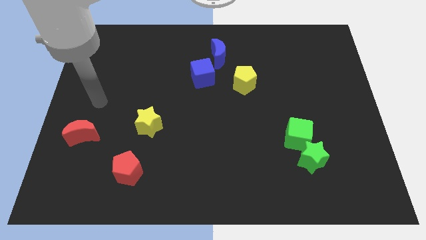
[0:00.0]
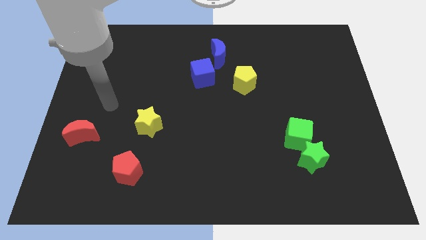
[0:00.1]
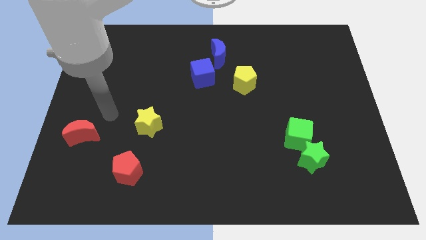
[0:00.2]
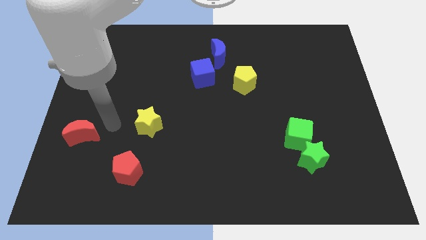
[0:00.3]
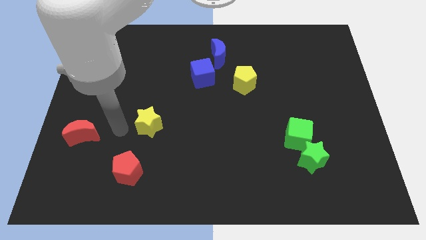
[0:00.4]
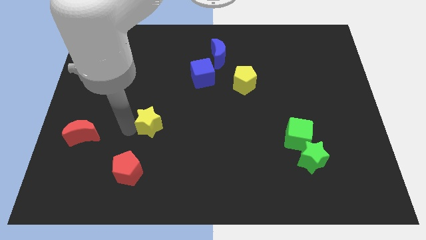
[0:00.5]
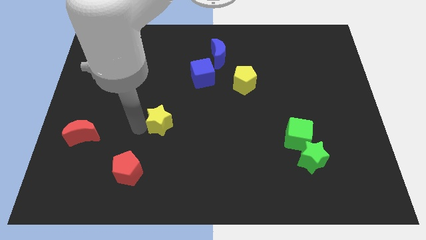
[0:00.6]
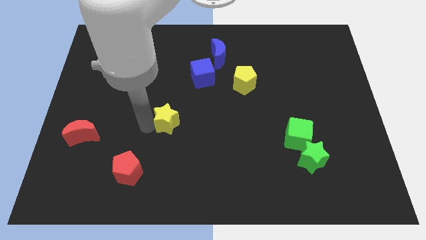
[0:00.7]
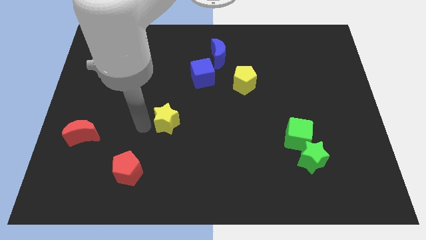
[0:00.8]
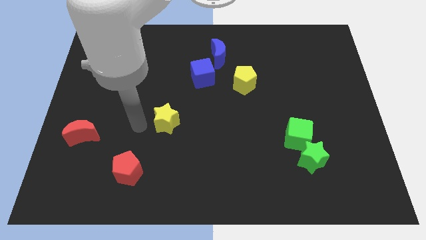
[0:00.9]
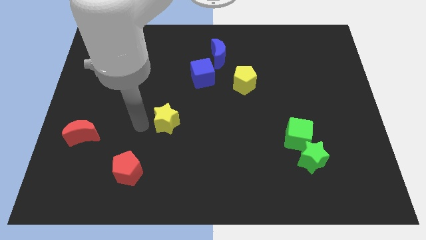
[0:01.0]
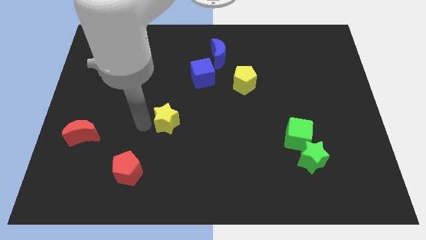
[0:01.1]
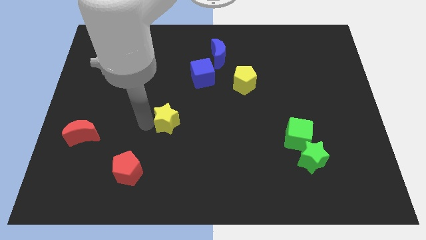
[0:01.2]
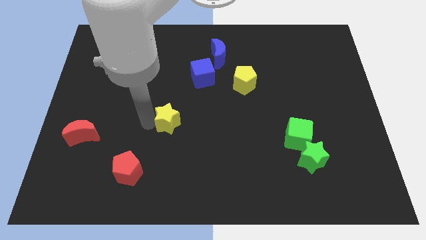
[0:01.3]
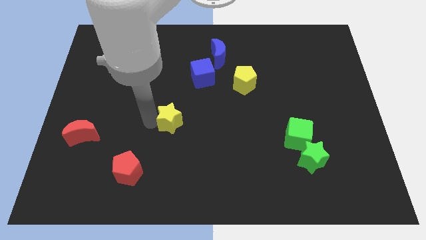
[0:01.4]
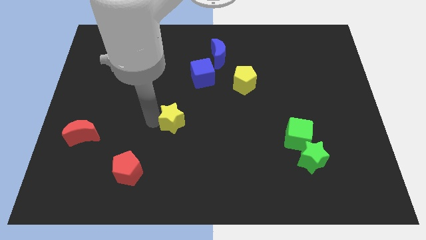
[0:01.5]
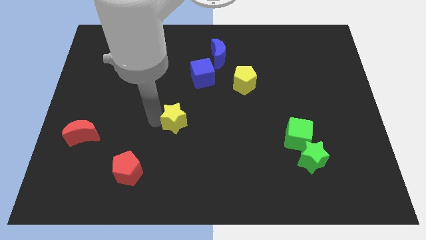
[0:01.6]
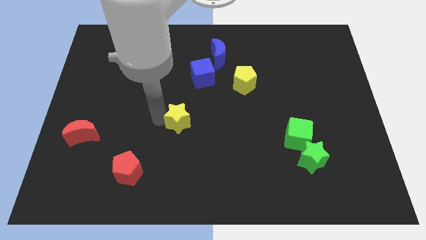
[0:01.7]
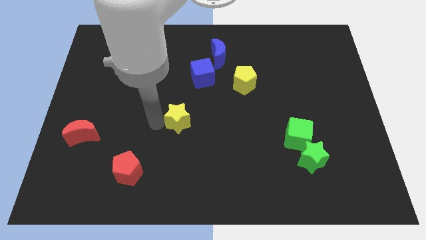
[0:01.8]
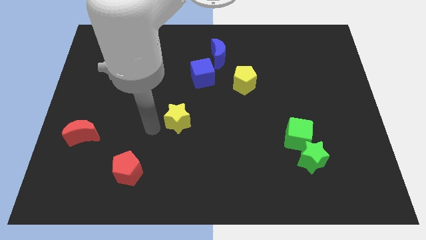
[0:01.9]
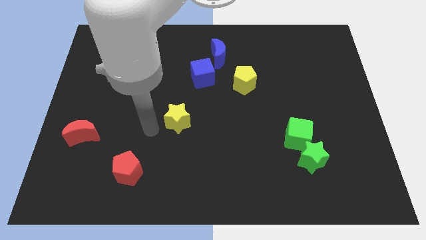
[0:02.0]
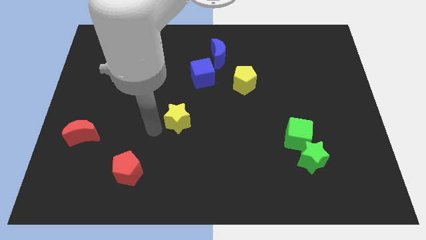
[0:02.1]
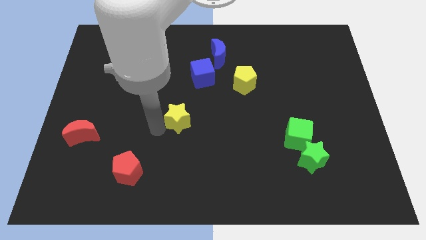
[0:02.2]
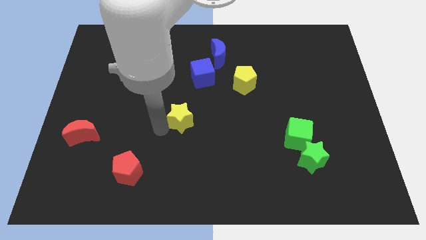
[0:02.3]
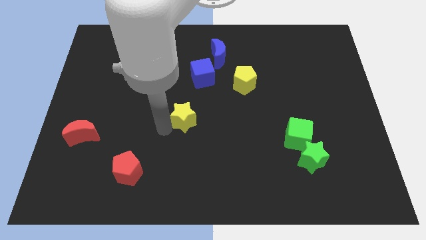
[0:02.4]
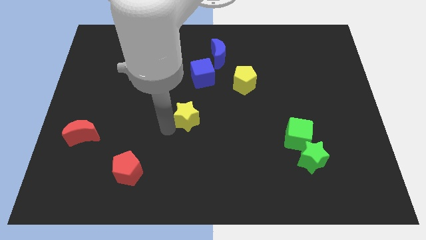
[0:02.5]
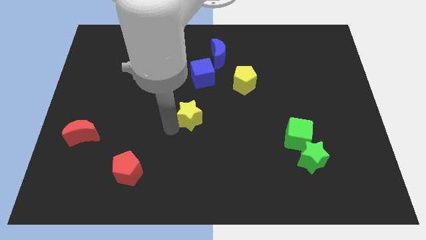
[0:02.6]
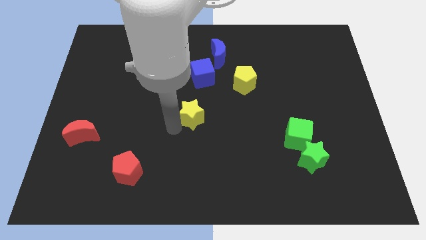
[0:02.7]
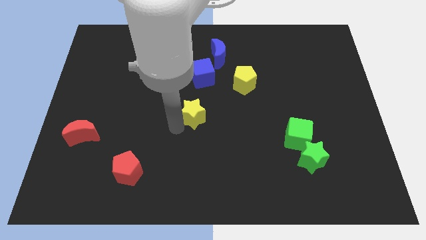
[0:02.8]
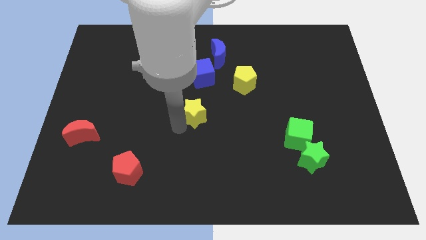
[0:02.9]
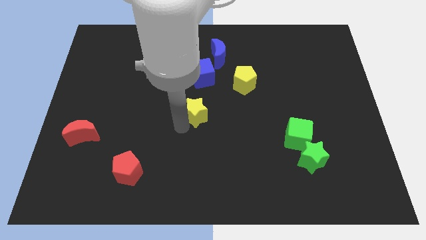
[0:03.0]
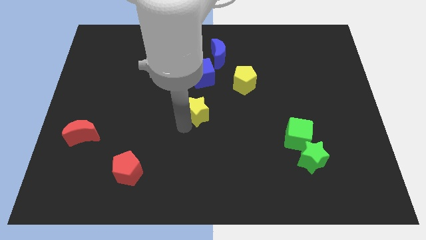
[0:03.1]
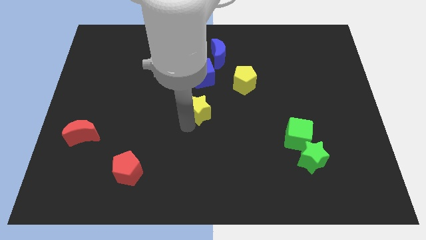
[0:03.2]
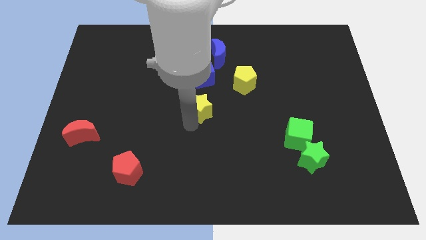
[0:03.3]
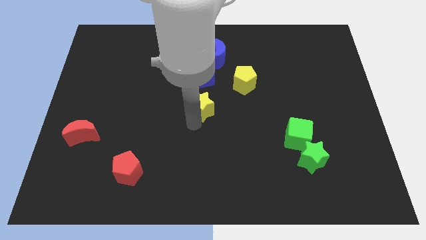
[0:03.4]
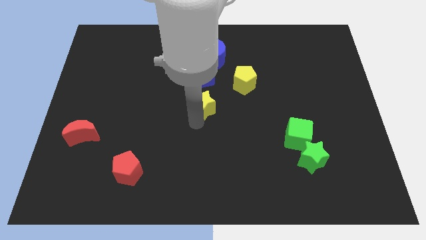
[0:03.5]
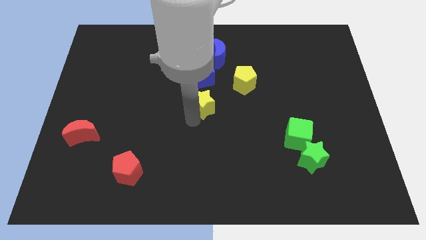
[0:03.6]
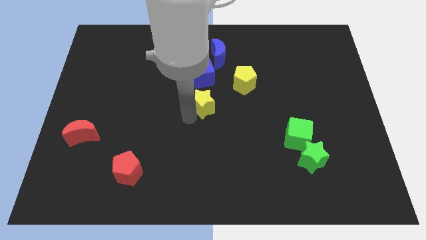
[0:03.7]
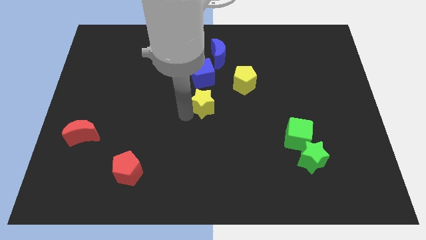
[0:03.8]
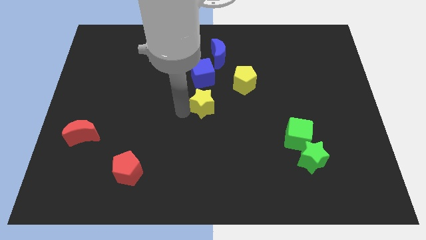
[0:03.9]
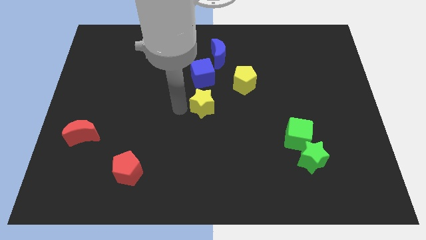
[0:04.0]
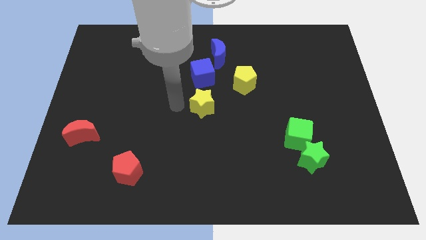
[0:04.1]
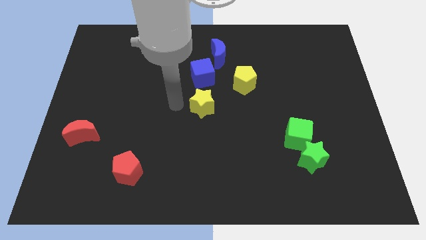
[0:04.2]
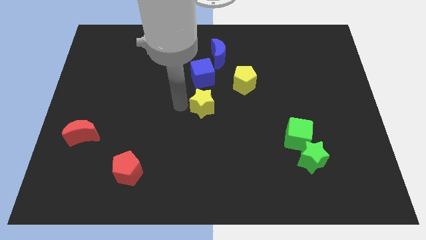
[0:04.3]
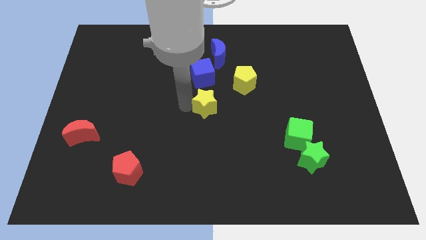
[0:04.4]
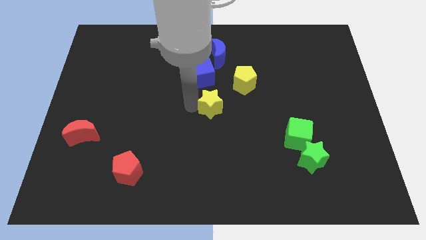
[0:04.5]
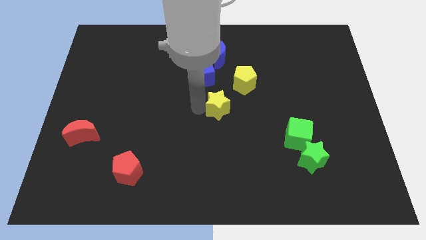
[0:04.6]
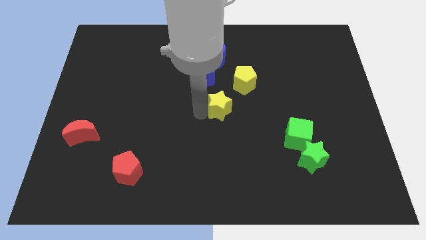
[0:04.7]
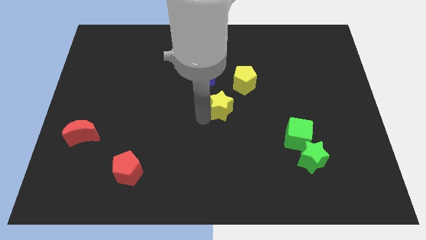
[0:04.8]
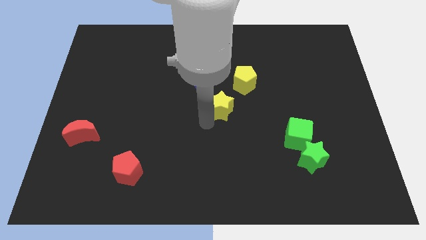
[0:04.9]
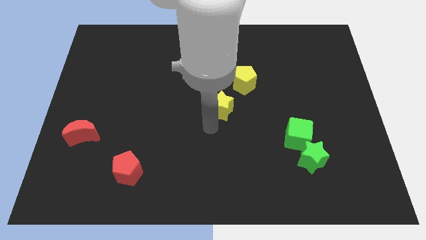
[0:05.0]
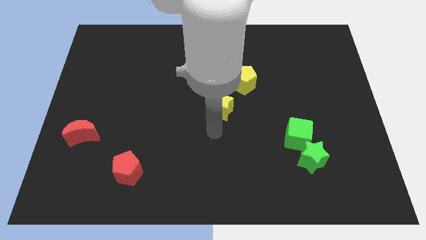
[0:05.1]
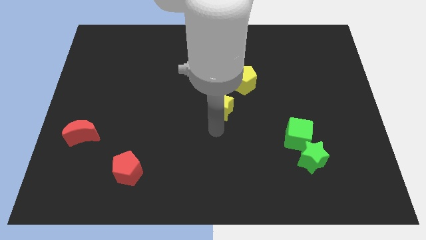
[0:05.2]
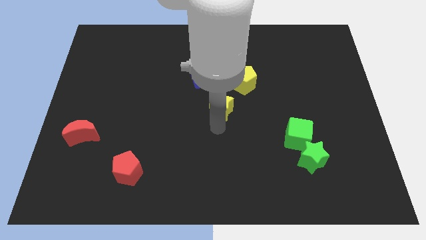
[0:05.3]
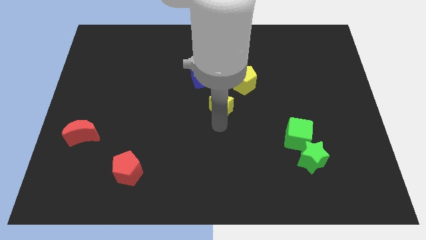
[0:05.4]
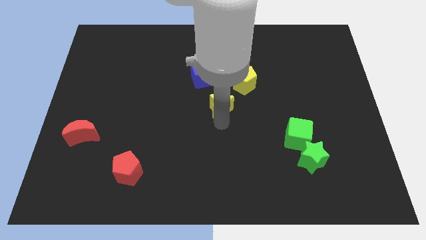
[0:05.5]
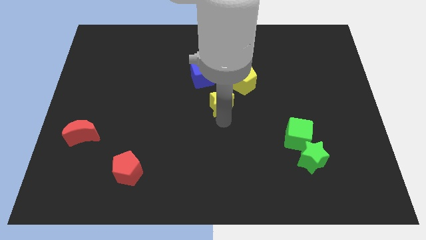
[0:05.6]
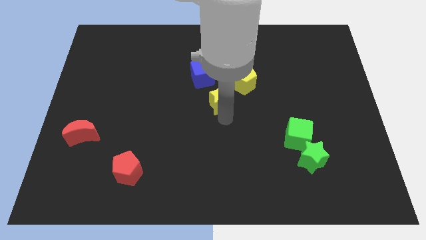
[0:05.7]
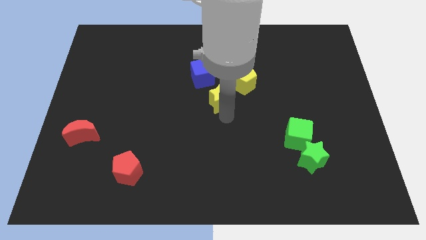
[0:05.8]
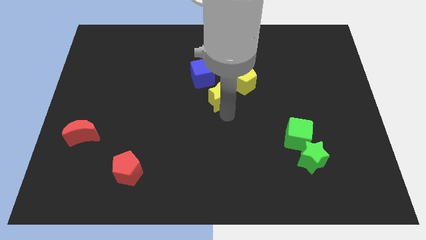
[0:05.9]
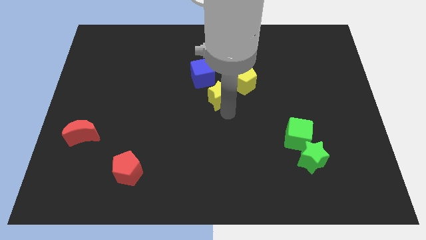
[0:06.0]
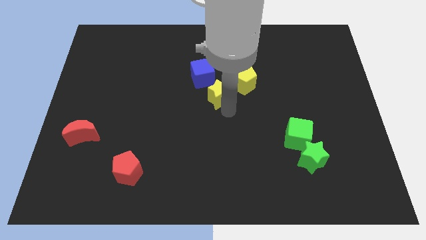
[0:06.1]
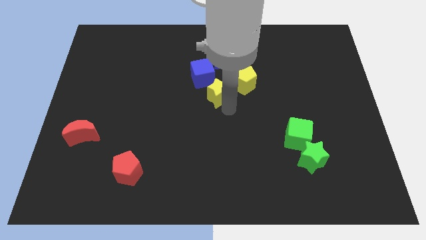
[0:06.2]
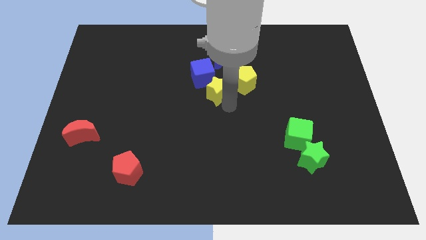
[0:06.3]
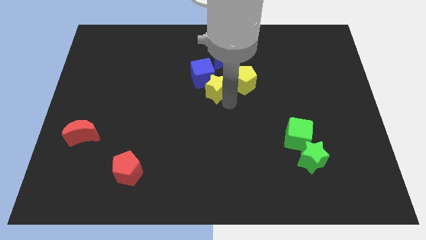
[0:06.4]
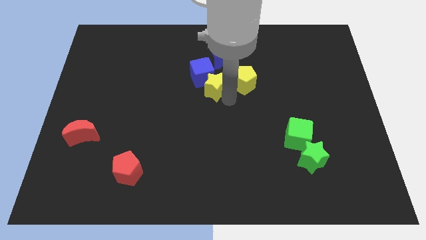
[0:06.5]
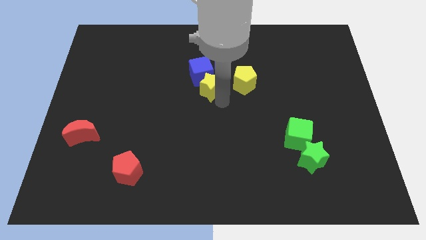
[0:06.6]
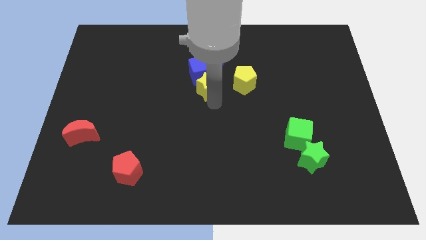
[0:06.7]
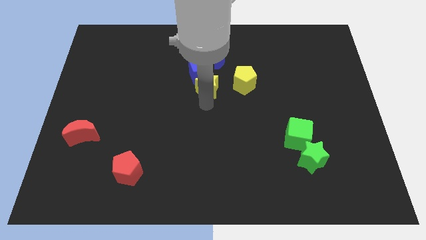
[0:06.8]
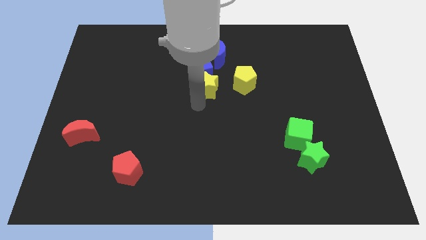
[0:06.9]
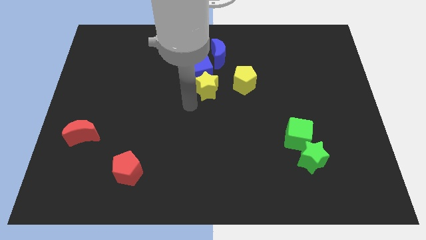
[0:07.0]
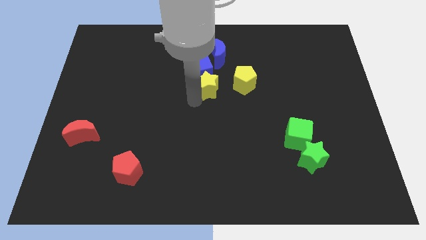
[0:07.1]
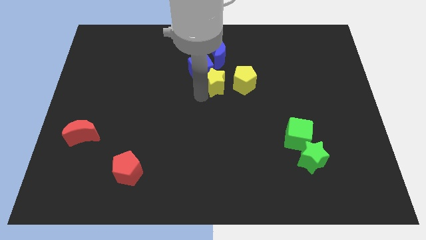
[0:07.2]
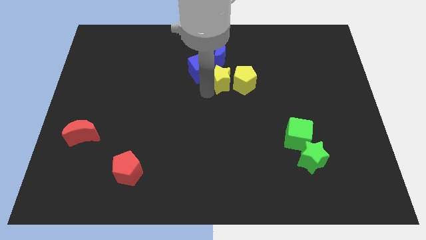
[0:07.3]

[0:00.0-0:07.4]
slide the yellow star upwards and right

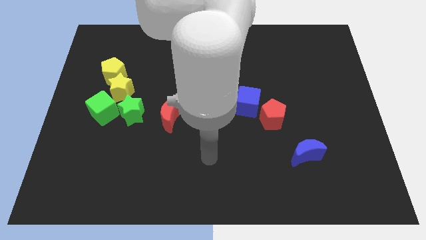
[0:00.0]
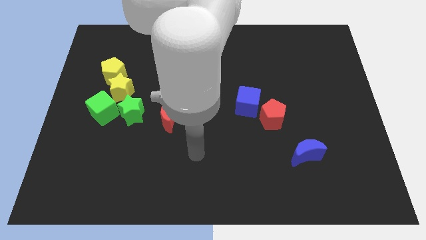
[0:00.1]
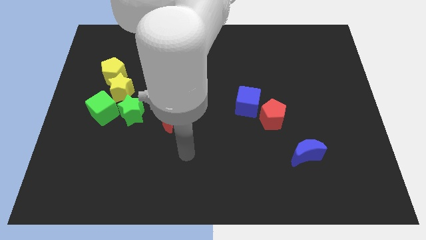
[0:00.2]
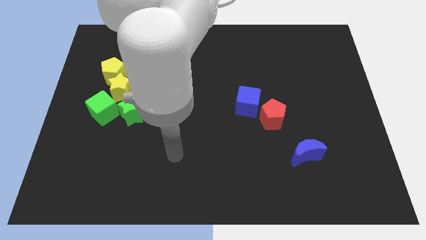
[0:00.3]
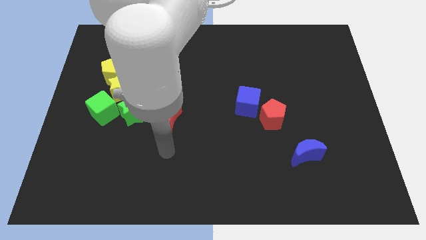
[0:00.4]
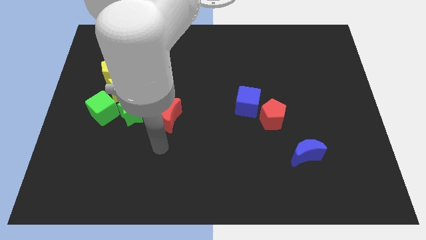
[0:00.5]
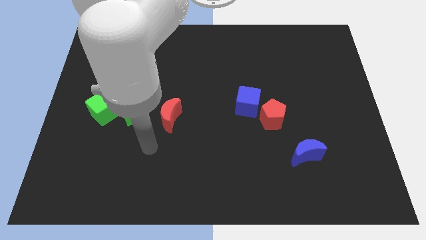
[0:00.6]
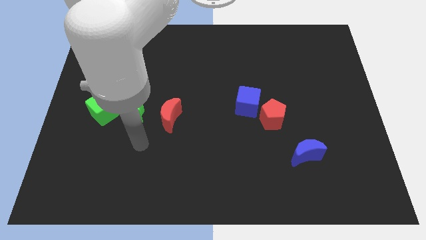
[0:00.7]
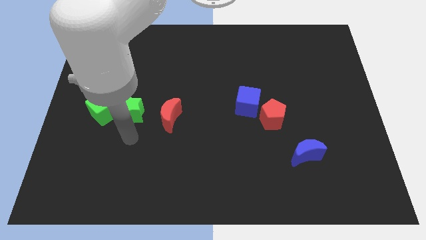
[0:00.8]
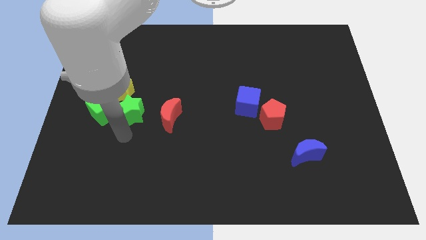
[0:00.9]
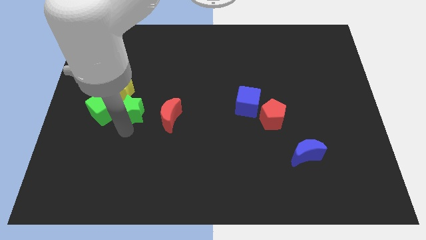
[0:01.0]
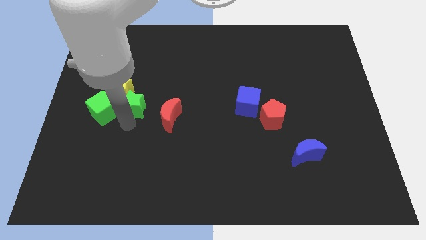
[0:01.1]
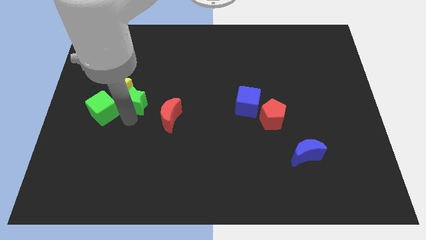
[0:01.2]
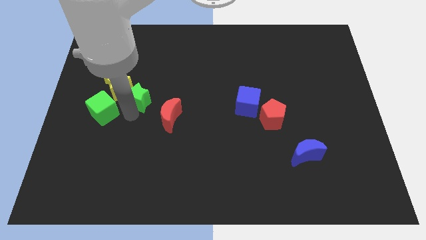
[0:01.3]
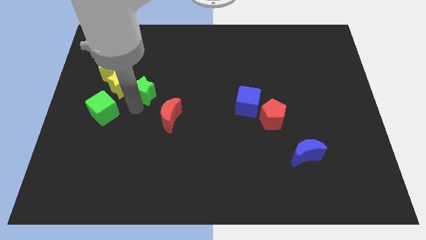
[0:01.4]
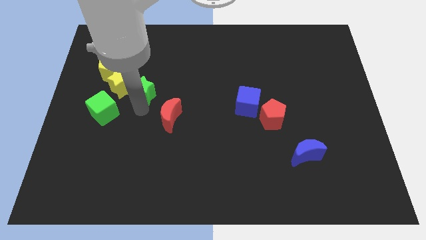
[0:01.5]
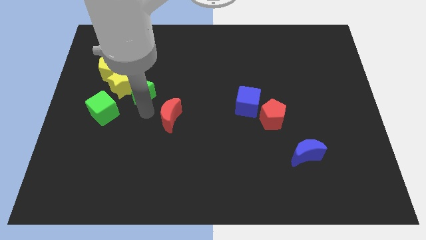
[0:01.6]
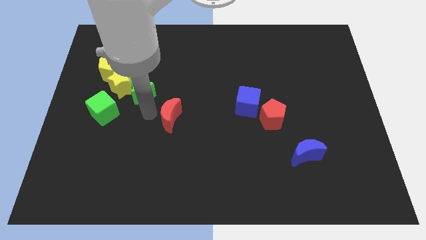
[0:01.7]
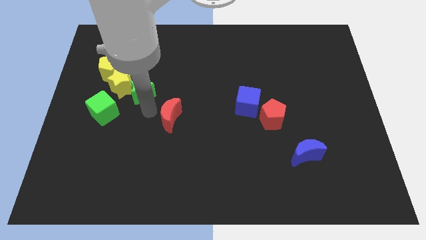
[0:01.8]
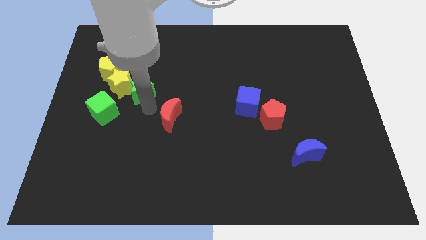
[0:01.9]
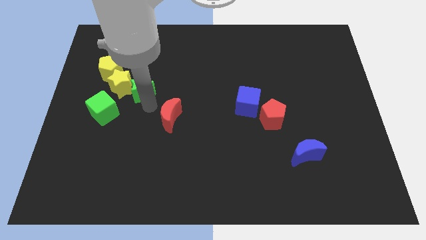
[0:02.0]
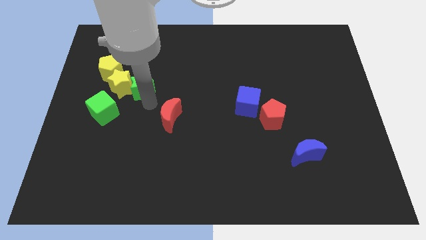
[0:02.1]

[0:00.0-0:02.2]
push the green star upwards somewhat
